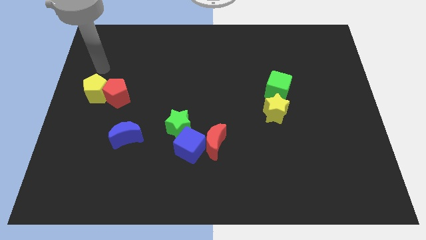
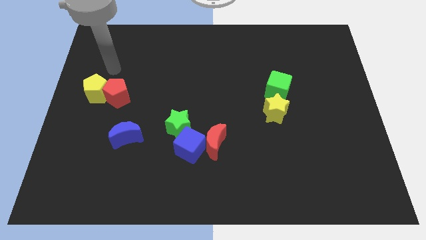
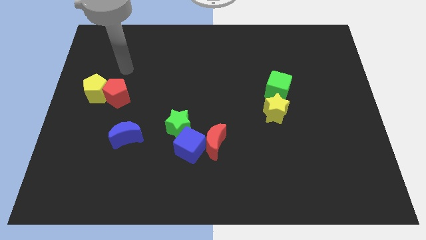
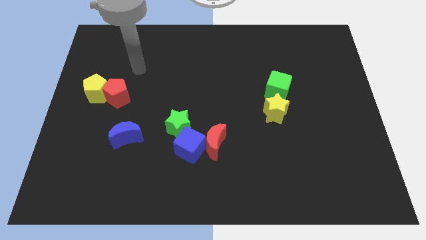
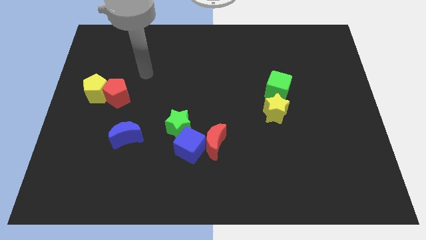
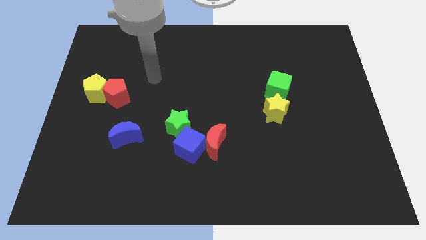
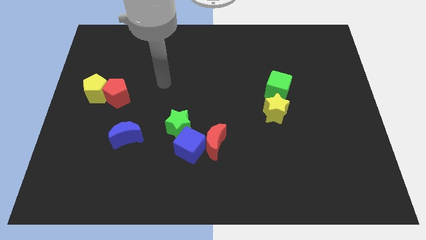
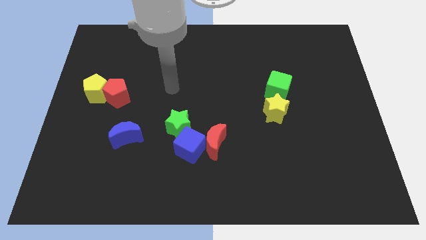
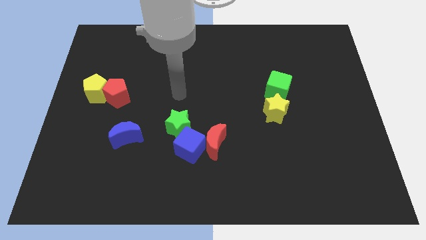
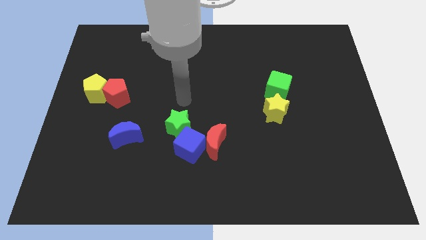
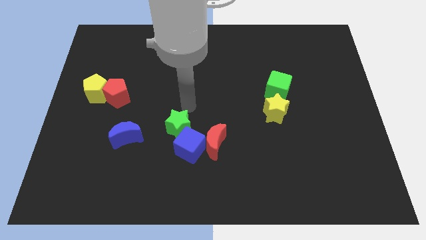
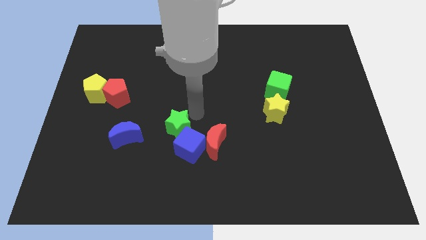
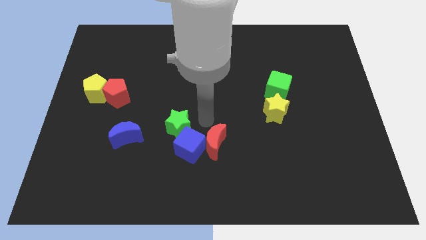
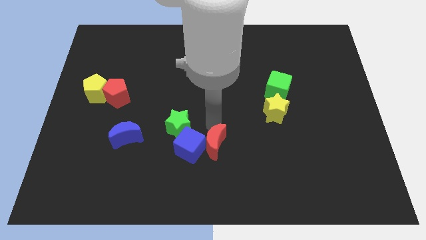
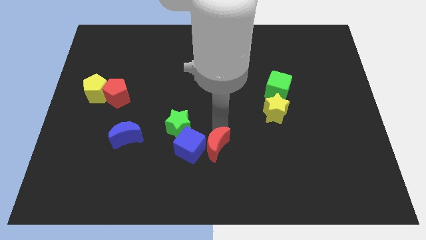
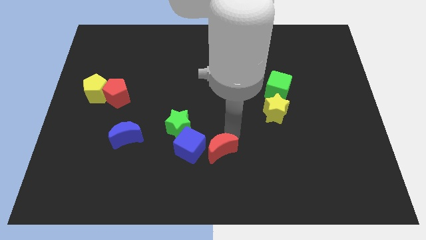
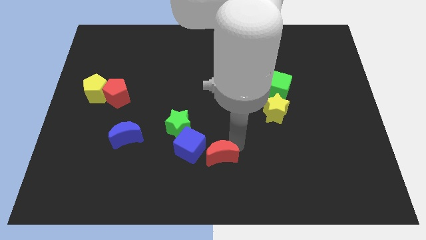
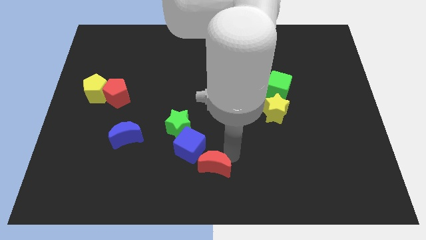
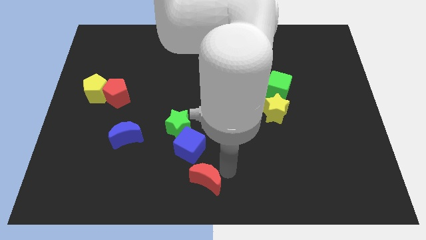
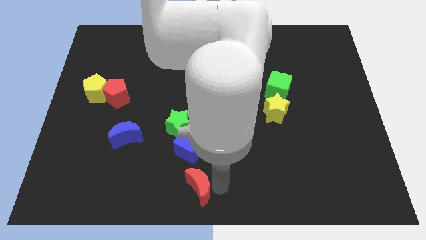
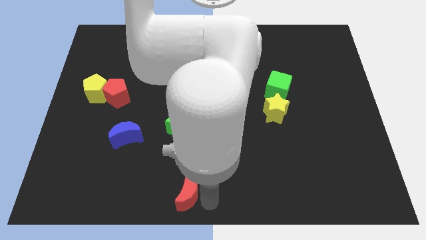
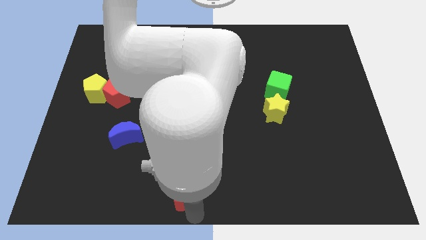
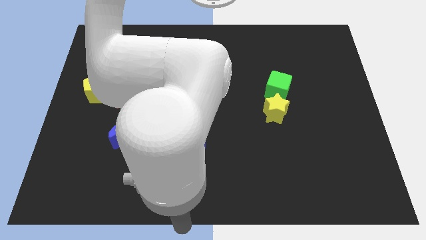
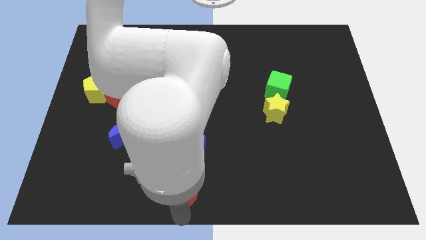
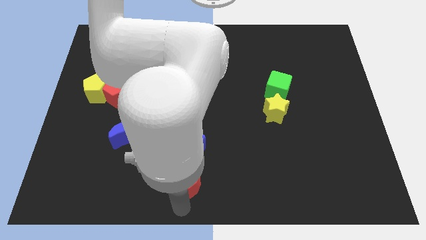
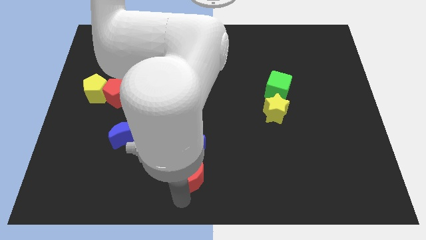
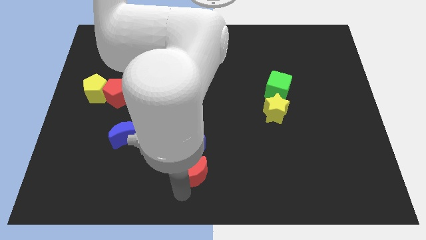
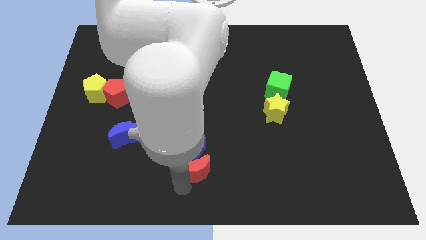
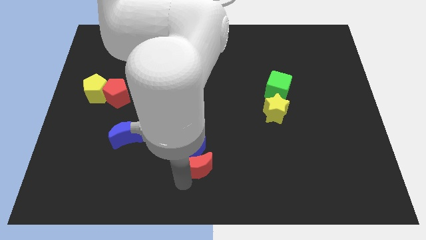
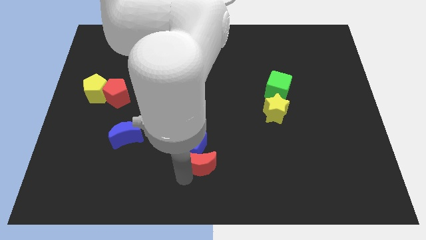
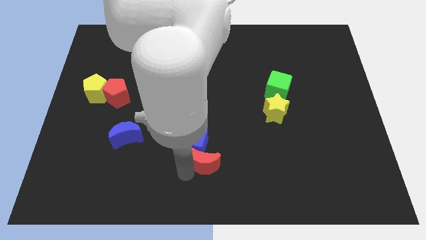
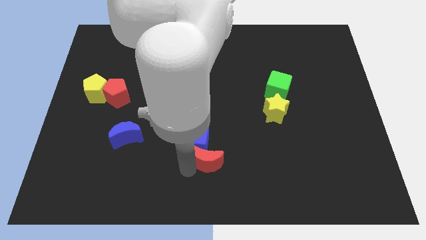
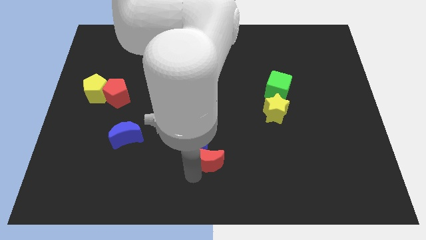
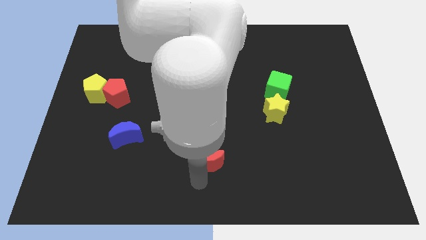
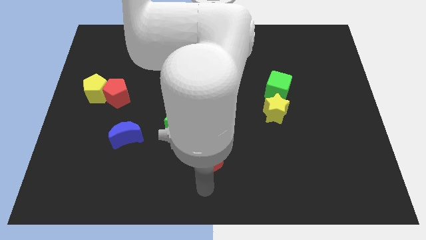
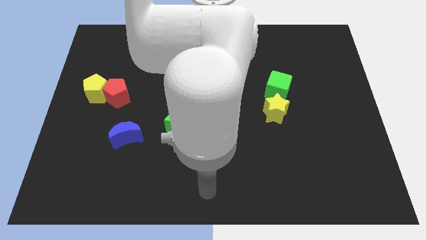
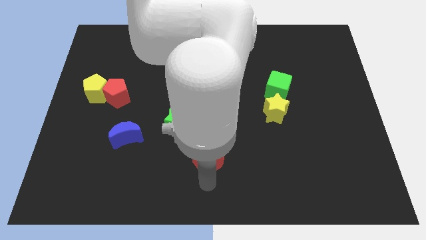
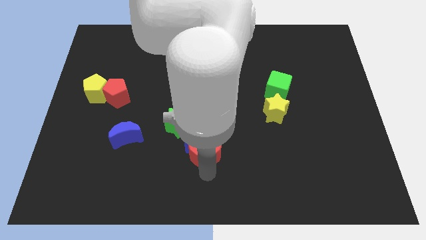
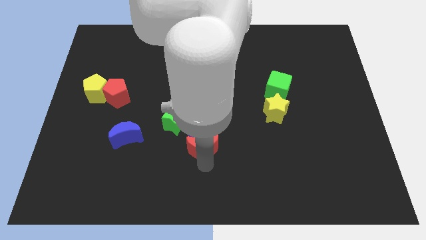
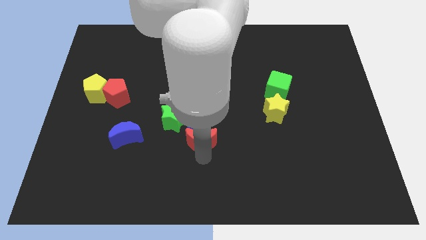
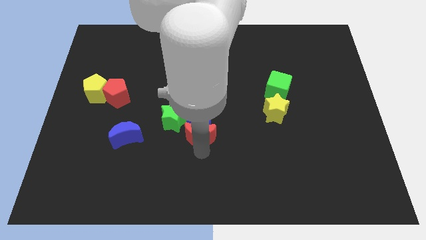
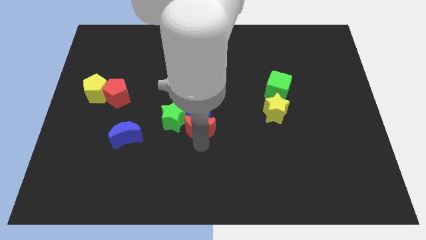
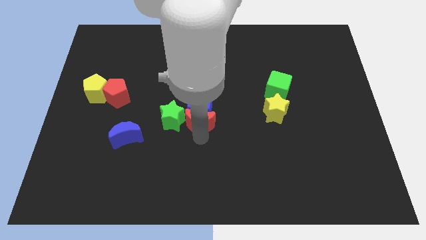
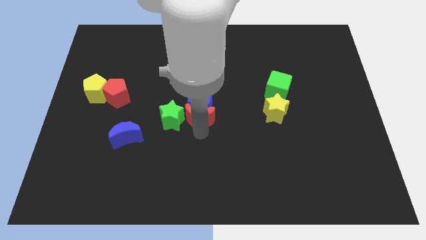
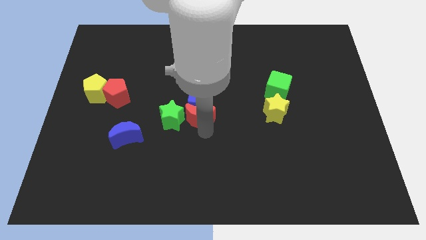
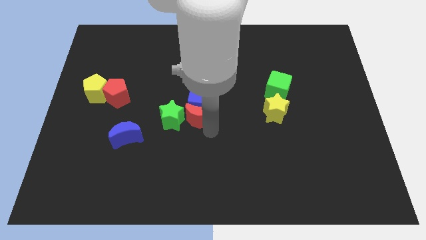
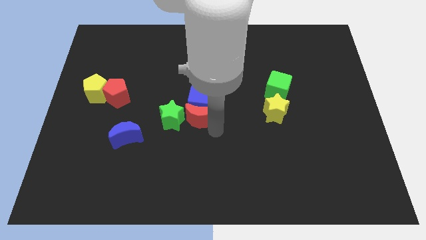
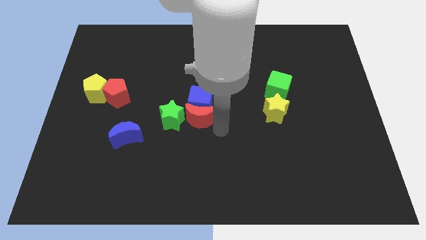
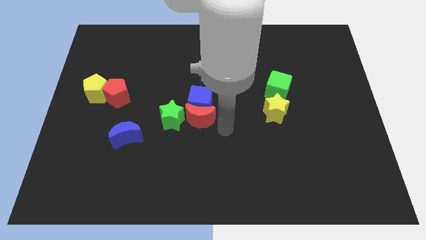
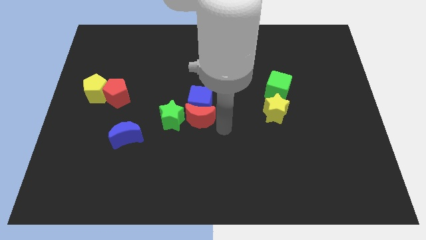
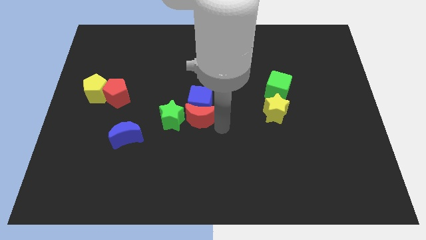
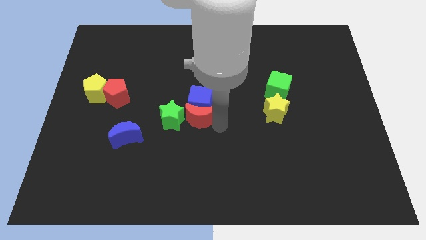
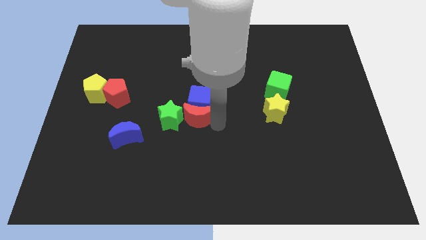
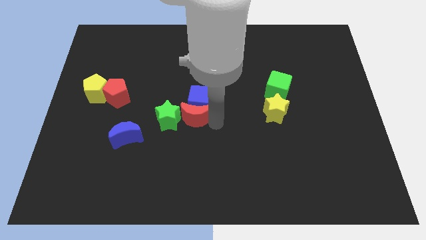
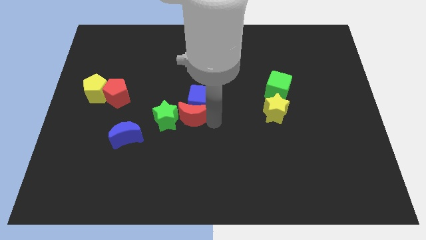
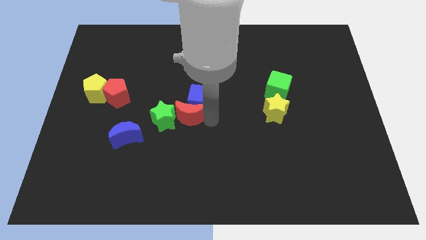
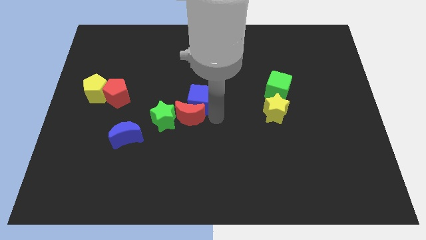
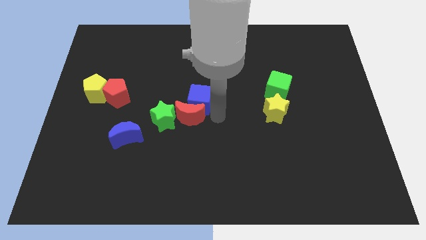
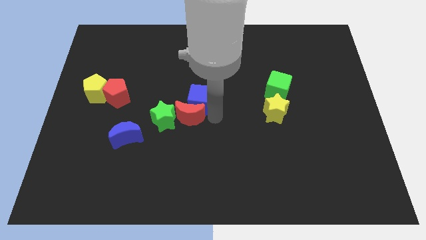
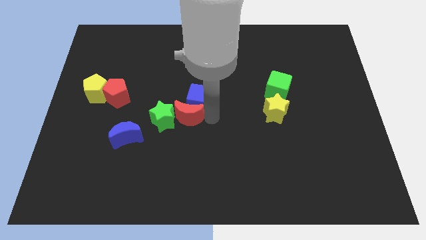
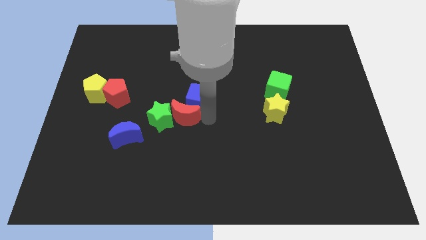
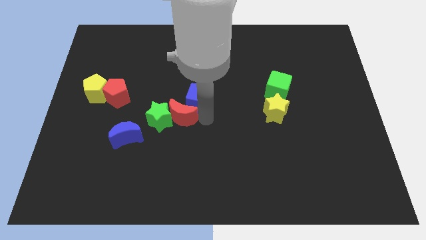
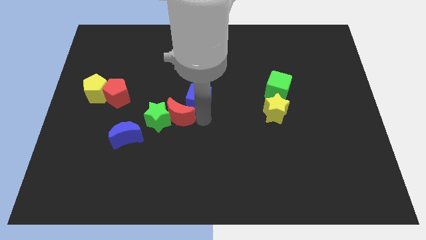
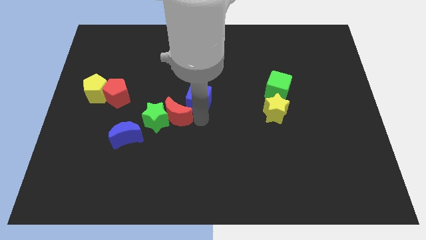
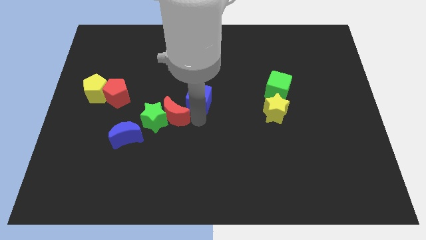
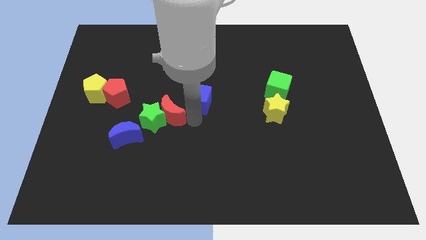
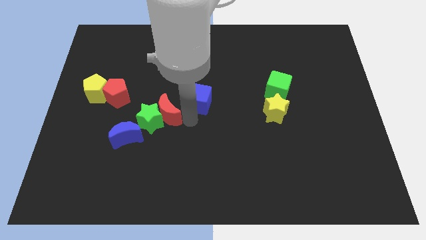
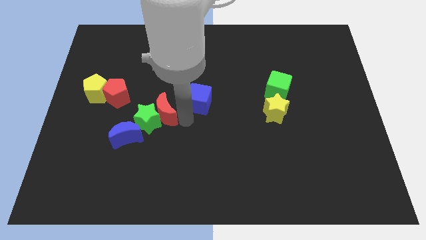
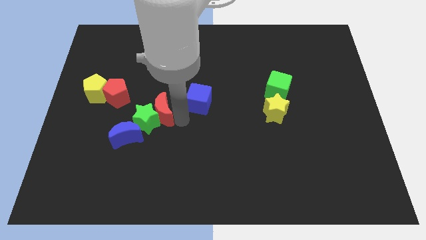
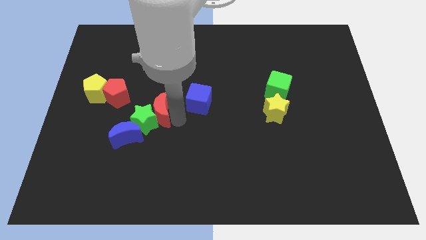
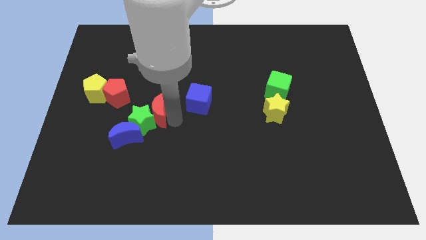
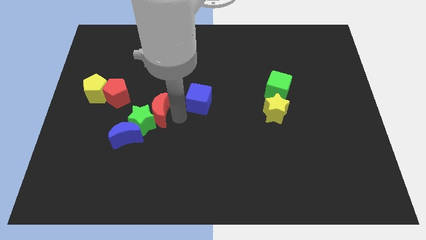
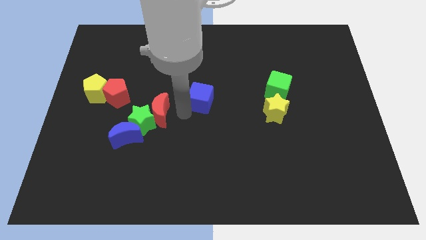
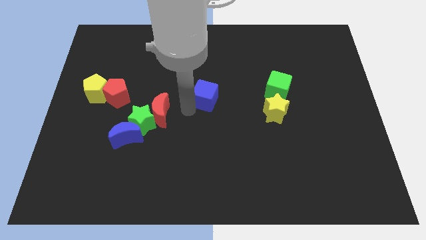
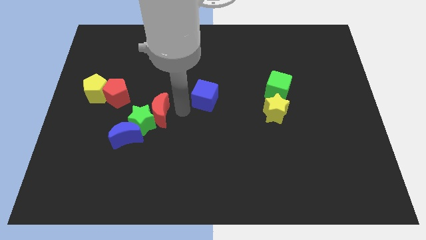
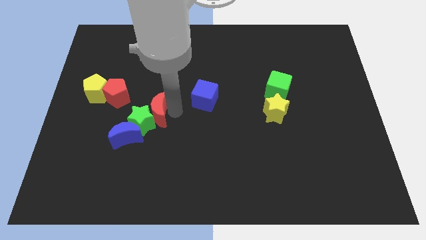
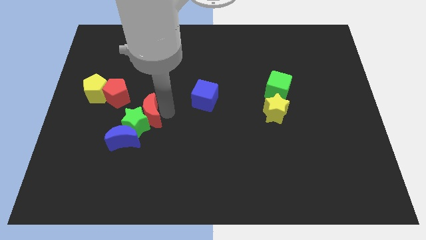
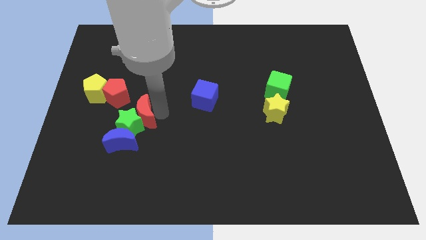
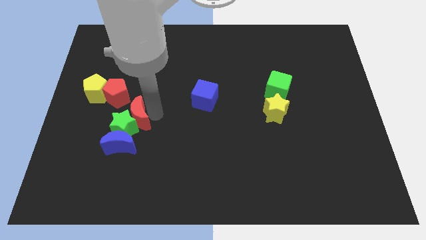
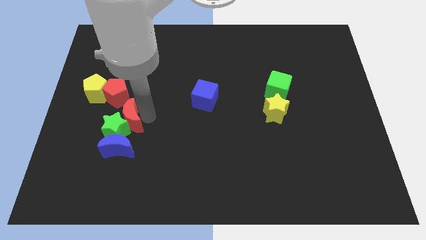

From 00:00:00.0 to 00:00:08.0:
slide the red moon to the bottom of the red pentagon

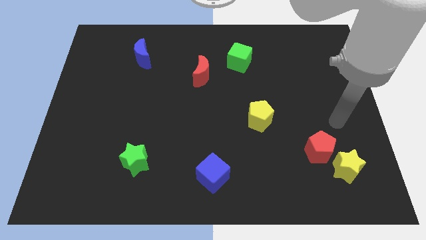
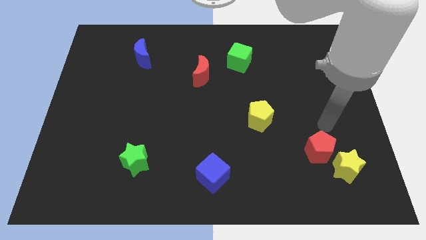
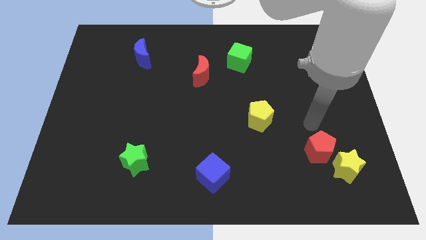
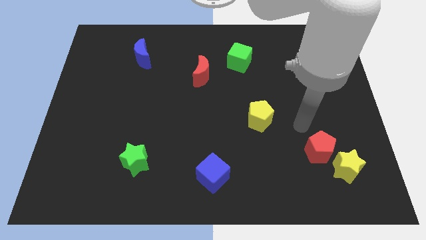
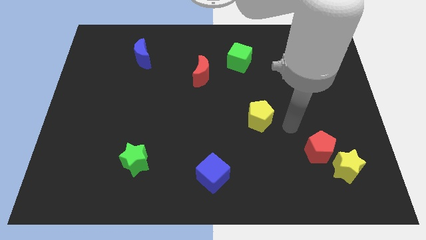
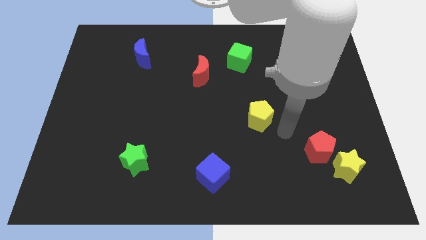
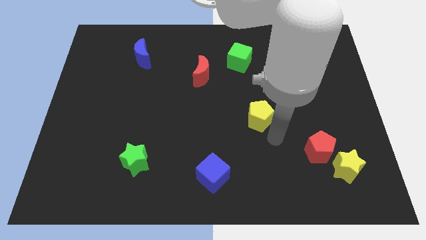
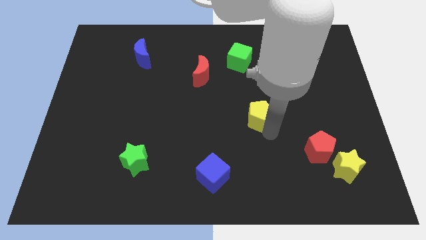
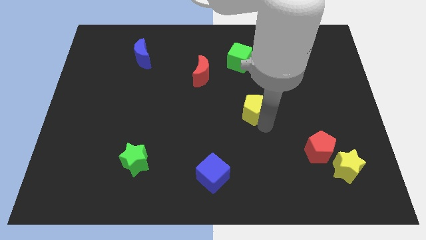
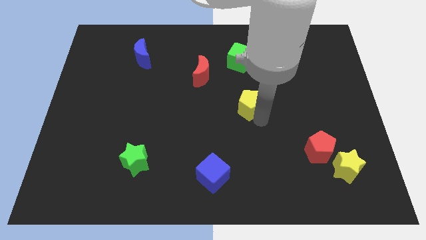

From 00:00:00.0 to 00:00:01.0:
slide the yellow pentagon below the green cube
